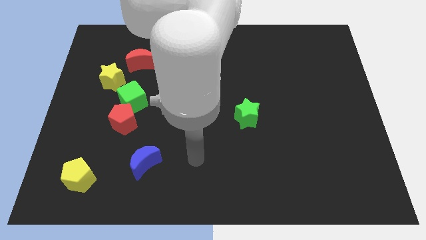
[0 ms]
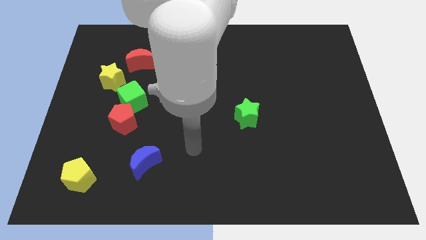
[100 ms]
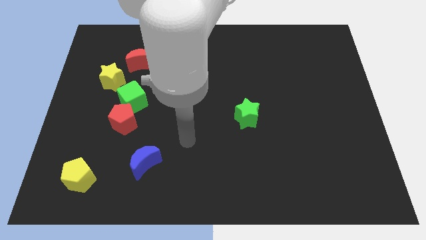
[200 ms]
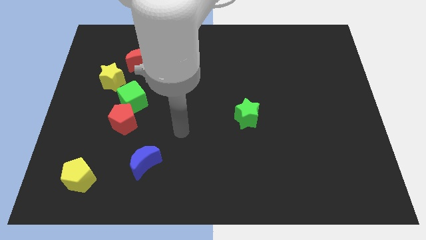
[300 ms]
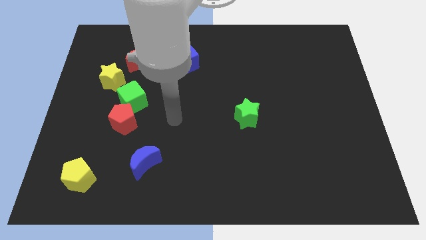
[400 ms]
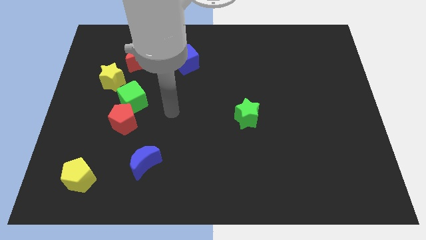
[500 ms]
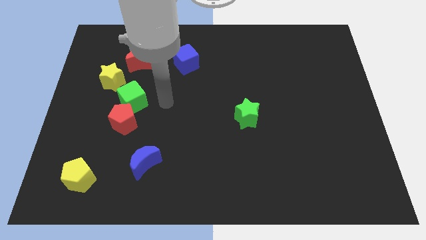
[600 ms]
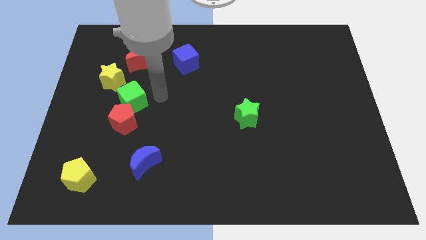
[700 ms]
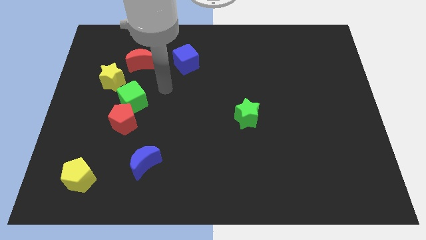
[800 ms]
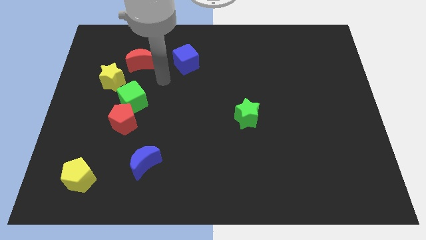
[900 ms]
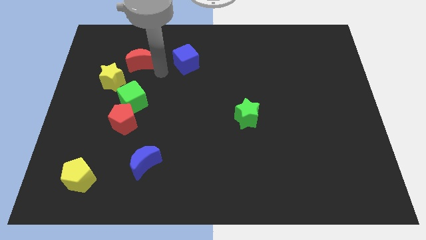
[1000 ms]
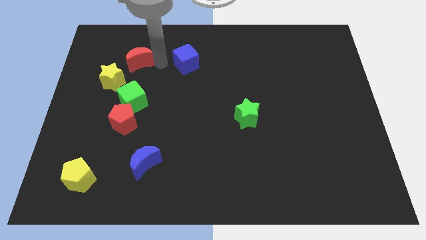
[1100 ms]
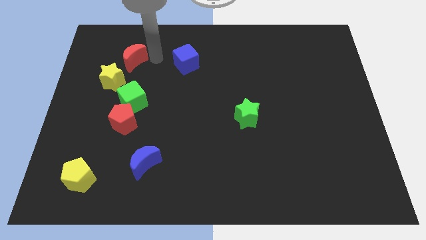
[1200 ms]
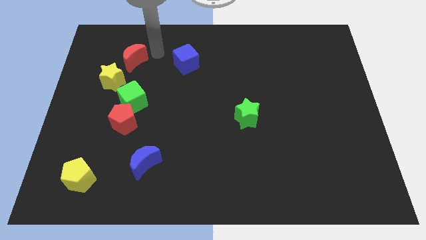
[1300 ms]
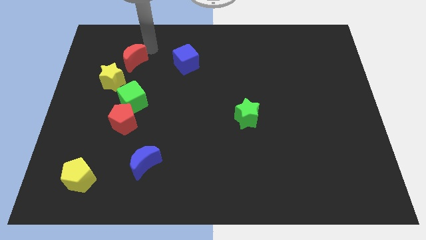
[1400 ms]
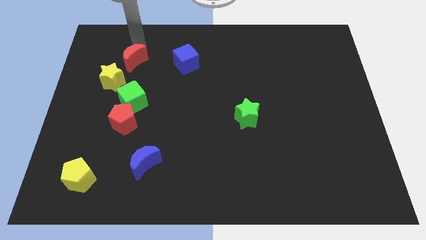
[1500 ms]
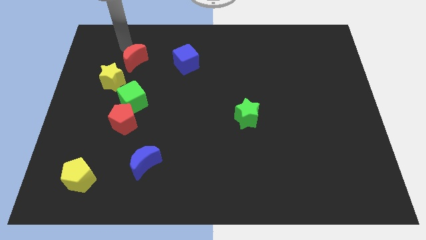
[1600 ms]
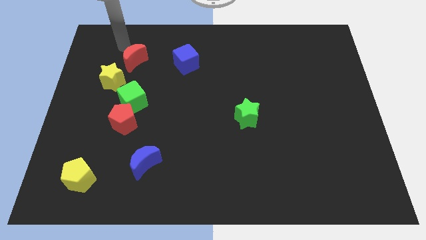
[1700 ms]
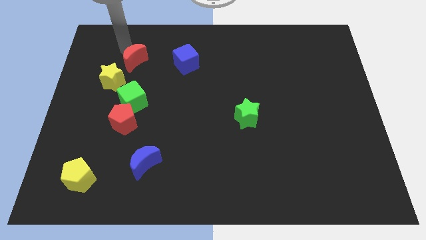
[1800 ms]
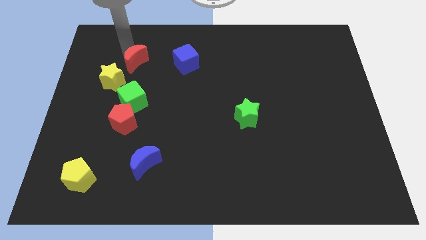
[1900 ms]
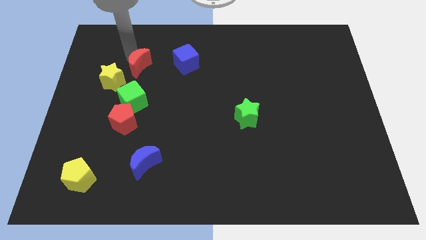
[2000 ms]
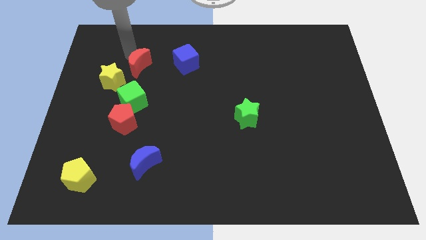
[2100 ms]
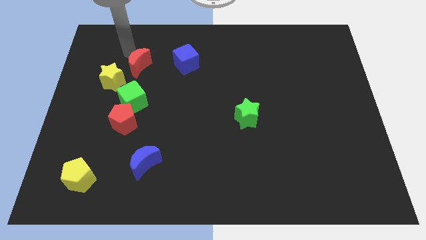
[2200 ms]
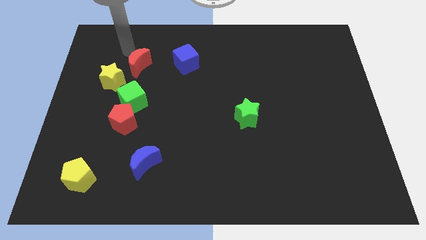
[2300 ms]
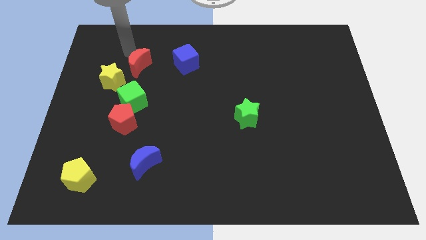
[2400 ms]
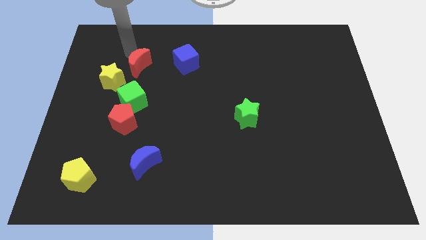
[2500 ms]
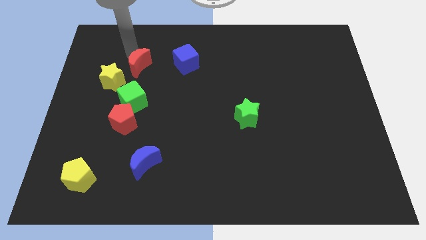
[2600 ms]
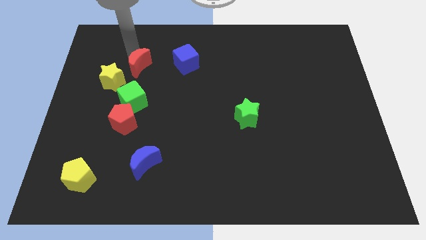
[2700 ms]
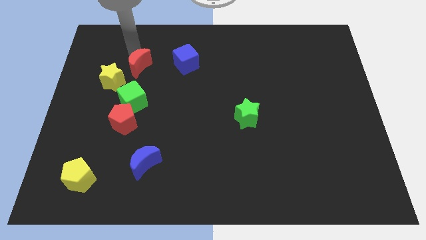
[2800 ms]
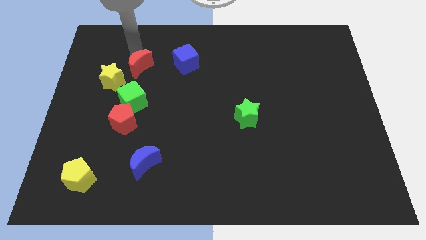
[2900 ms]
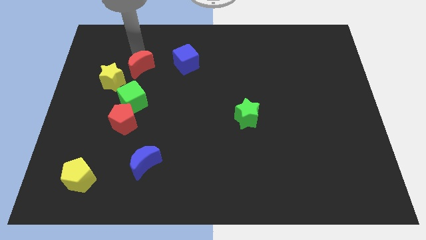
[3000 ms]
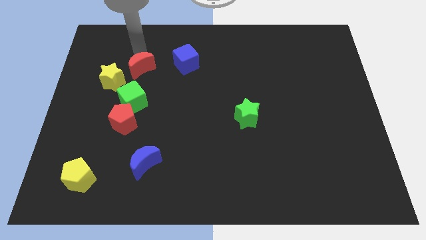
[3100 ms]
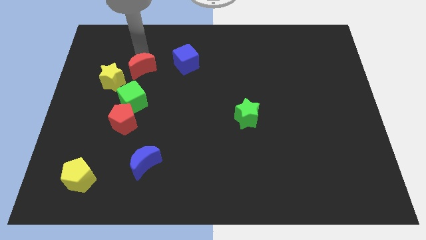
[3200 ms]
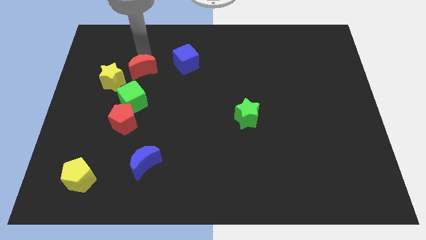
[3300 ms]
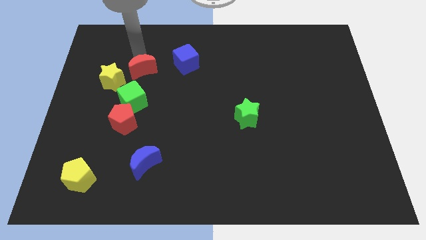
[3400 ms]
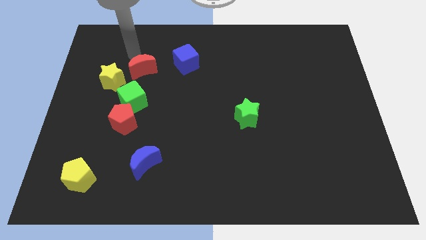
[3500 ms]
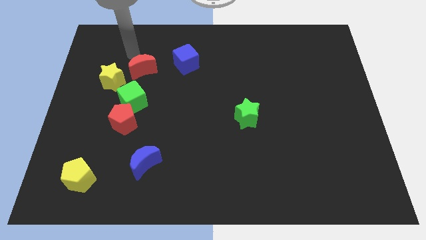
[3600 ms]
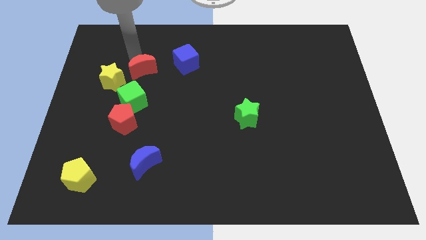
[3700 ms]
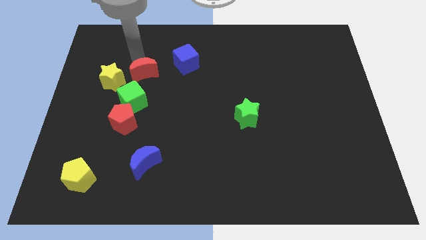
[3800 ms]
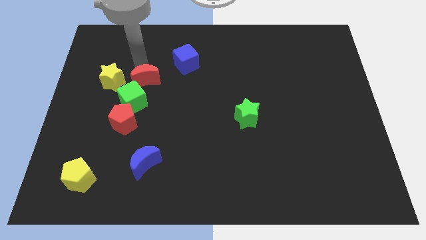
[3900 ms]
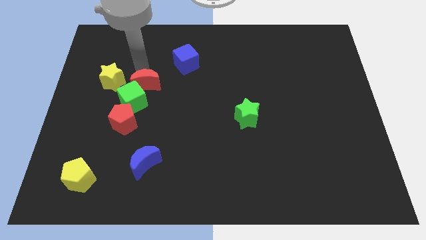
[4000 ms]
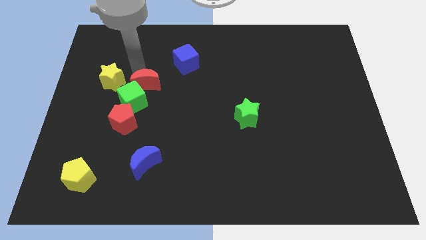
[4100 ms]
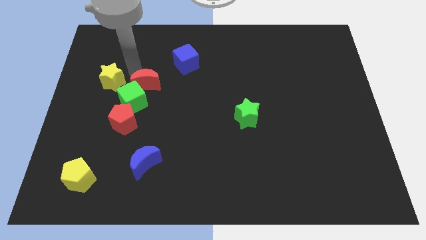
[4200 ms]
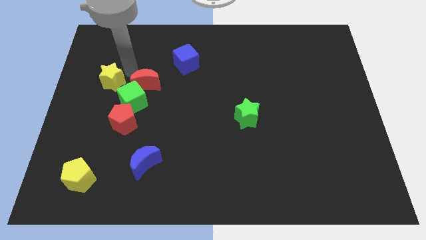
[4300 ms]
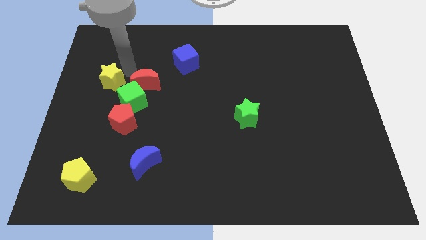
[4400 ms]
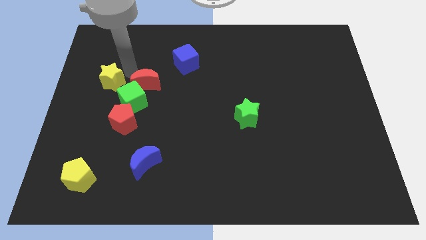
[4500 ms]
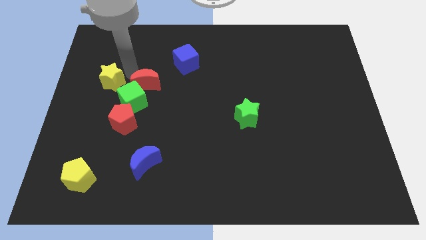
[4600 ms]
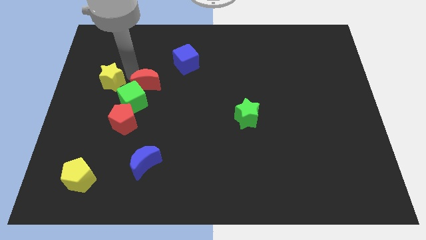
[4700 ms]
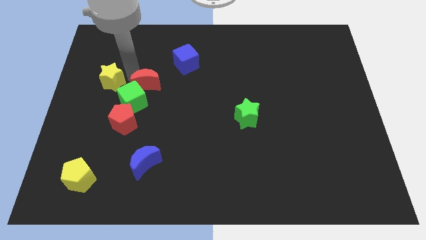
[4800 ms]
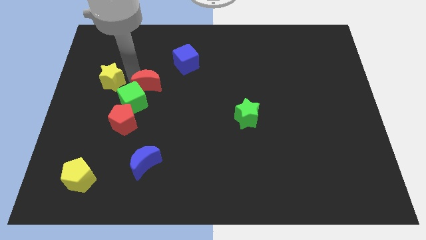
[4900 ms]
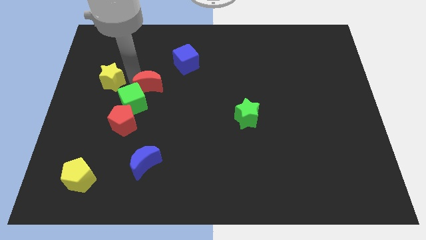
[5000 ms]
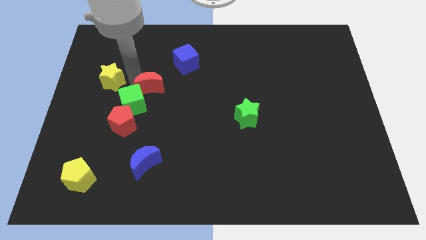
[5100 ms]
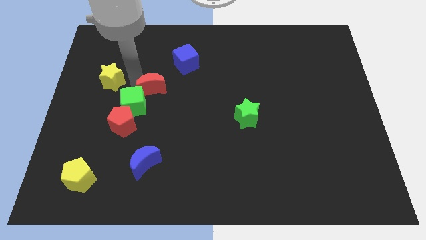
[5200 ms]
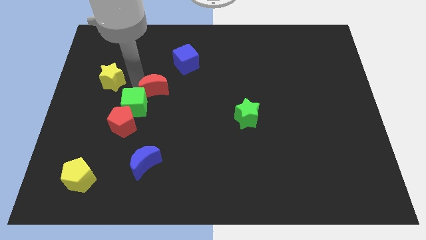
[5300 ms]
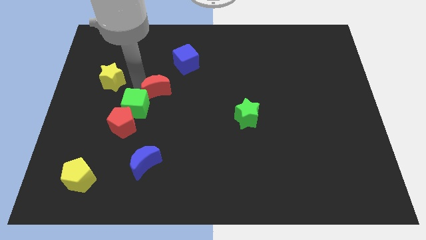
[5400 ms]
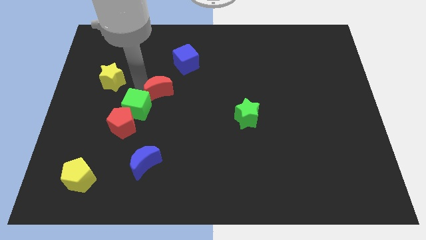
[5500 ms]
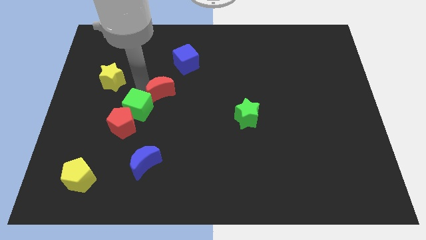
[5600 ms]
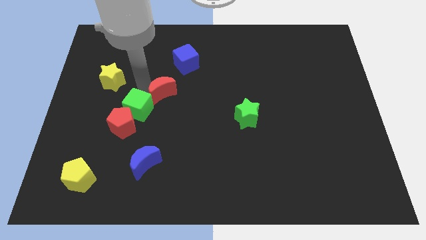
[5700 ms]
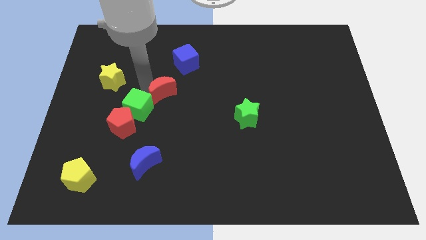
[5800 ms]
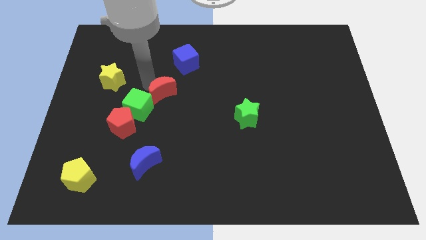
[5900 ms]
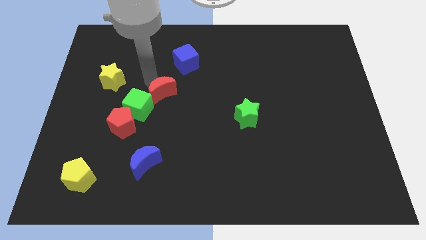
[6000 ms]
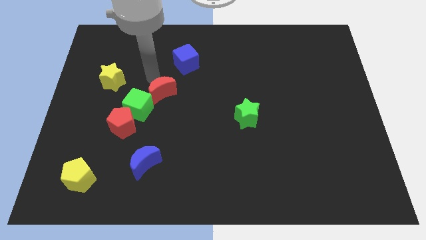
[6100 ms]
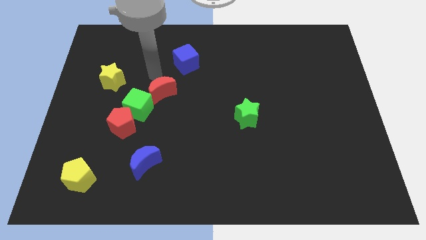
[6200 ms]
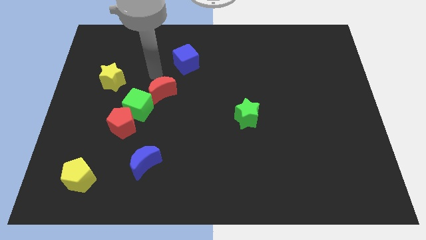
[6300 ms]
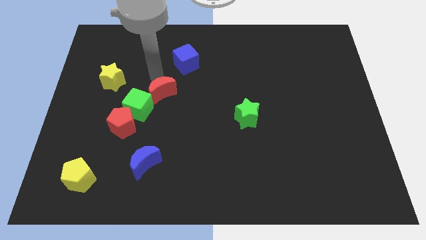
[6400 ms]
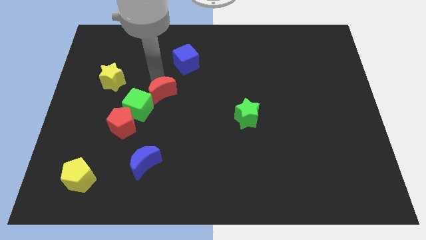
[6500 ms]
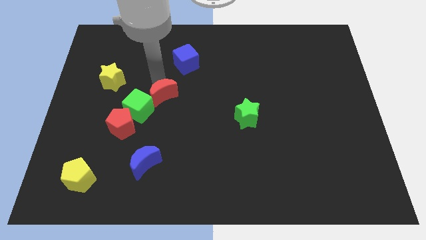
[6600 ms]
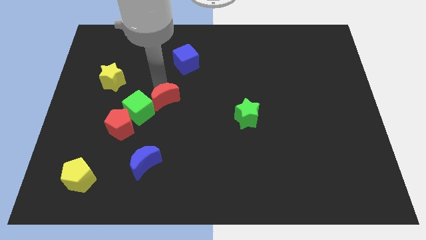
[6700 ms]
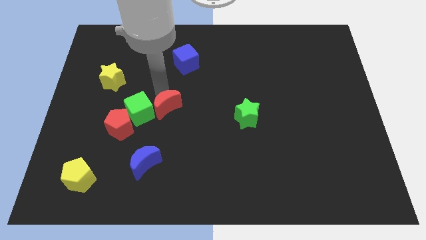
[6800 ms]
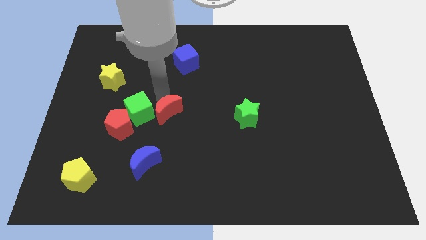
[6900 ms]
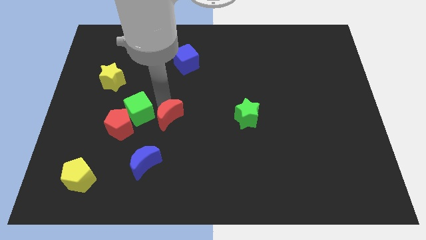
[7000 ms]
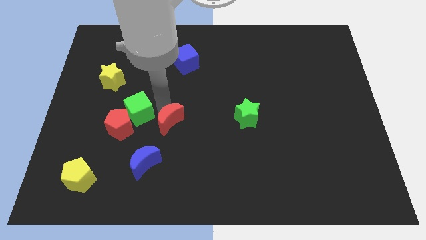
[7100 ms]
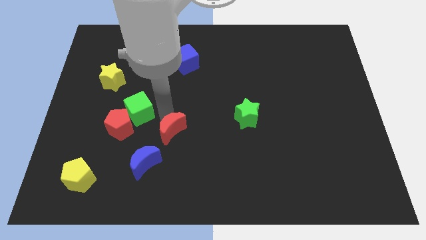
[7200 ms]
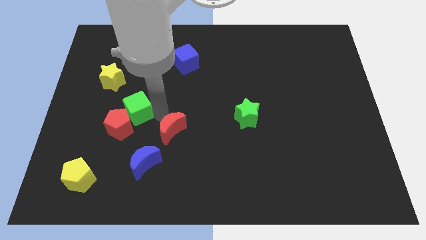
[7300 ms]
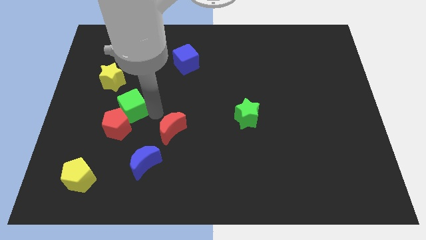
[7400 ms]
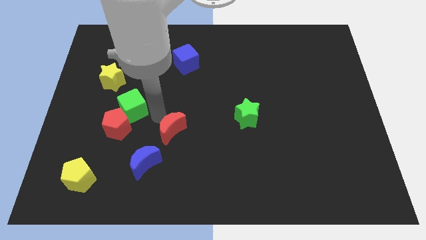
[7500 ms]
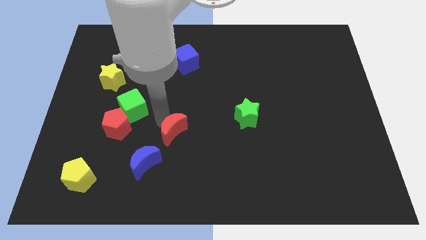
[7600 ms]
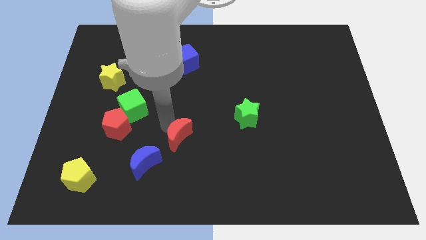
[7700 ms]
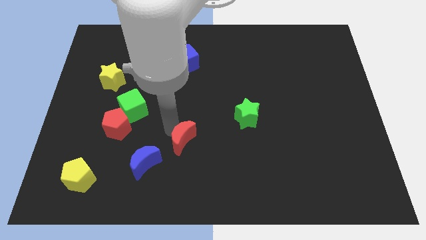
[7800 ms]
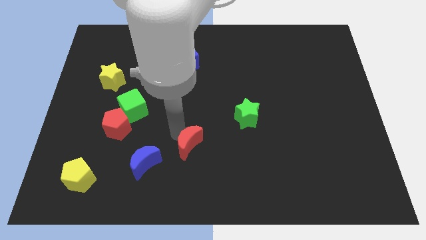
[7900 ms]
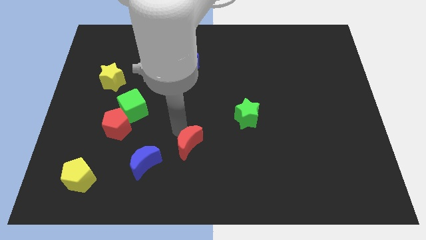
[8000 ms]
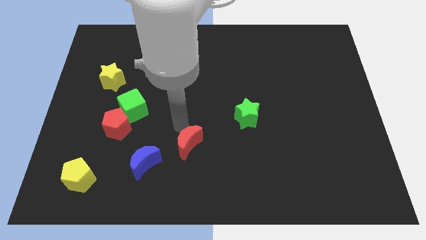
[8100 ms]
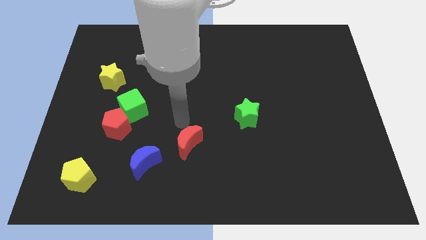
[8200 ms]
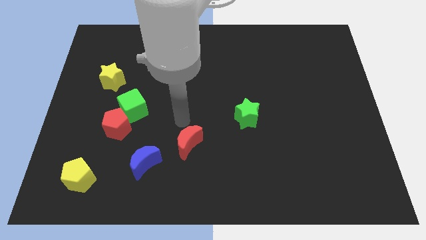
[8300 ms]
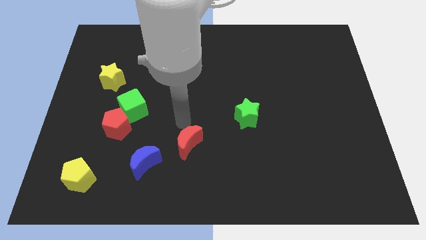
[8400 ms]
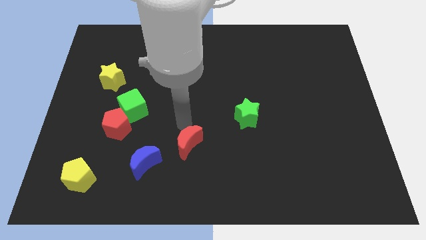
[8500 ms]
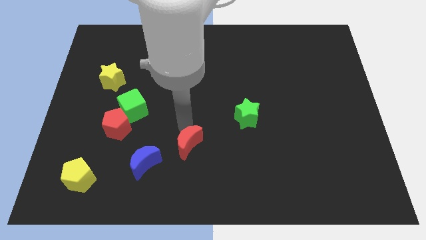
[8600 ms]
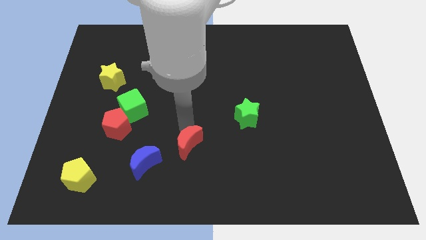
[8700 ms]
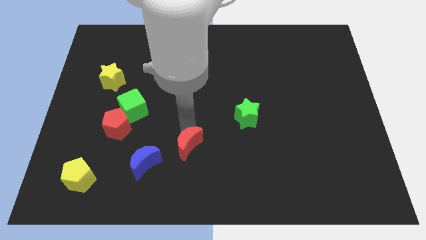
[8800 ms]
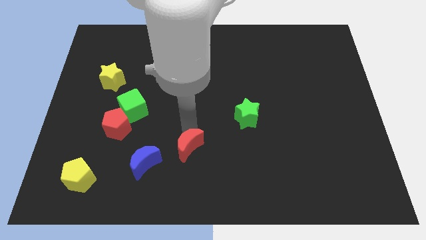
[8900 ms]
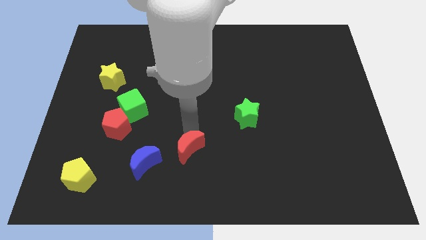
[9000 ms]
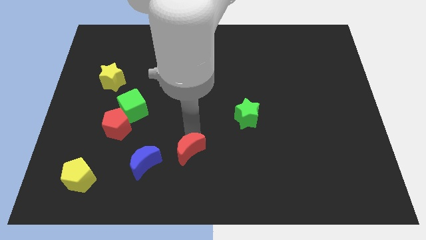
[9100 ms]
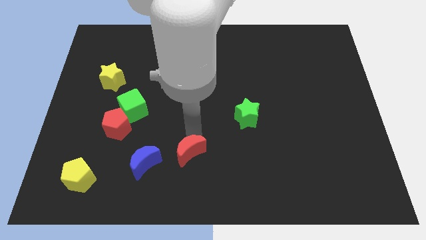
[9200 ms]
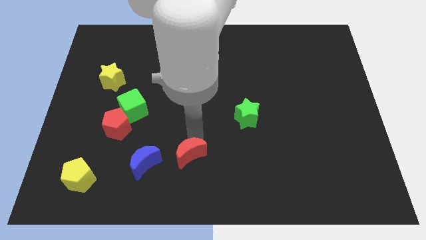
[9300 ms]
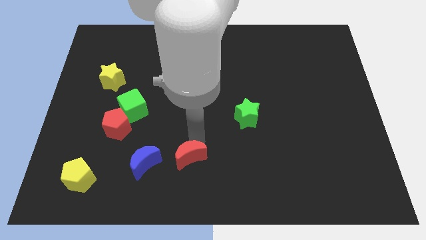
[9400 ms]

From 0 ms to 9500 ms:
push the red moon to the bottom
